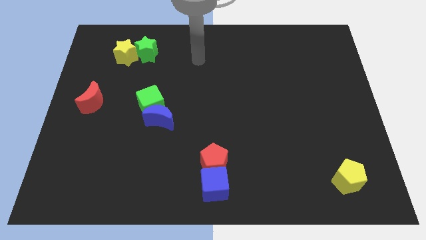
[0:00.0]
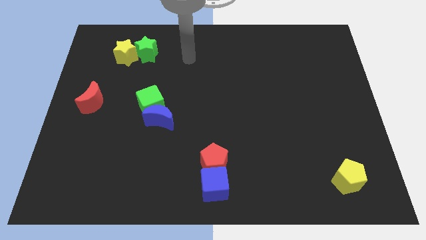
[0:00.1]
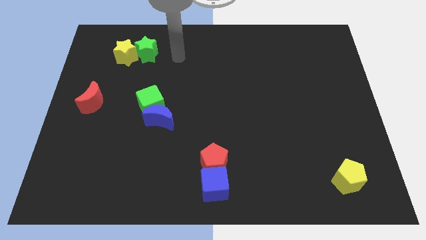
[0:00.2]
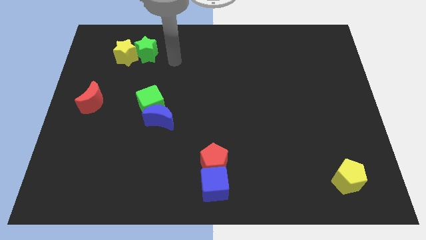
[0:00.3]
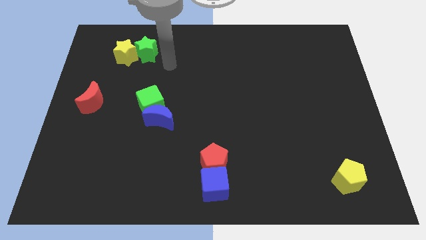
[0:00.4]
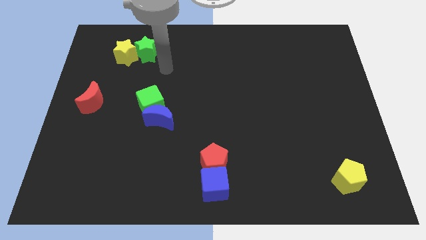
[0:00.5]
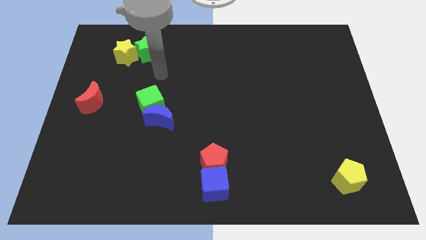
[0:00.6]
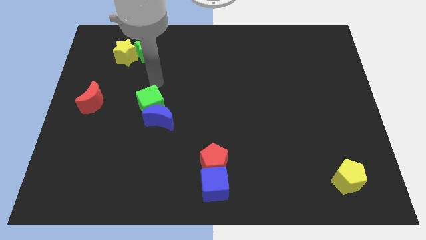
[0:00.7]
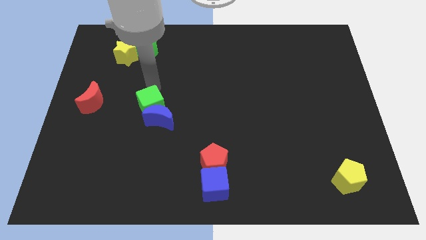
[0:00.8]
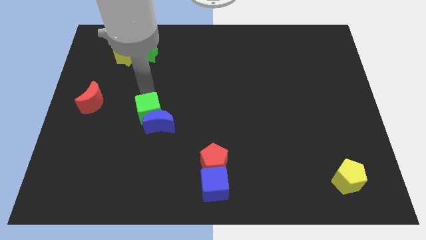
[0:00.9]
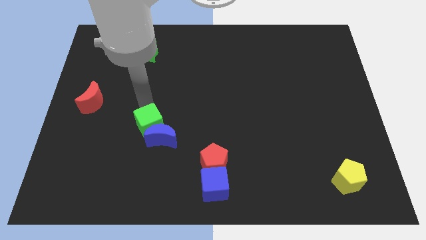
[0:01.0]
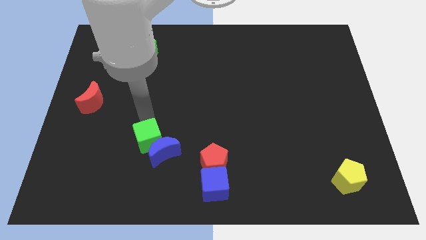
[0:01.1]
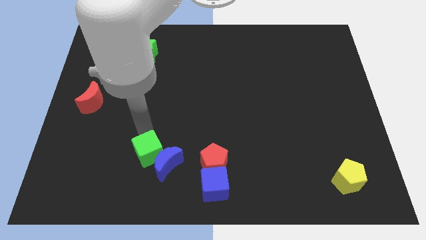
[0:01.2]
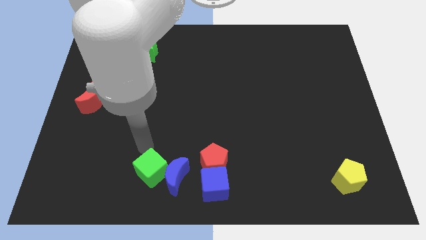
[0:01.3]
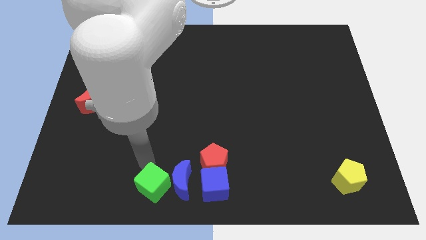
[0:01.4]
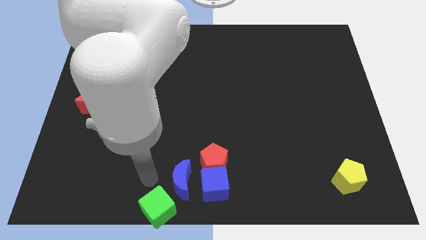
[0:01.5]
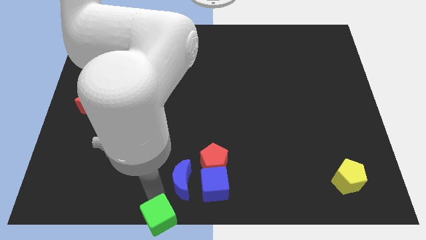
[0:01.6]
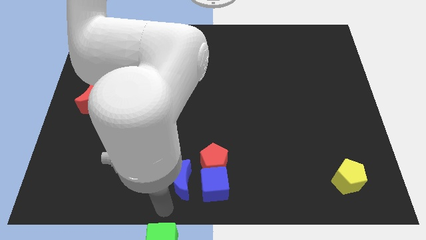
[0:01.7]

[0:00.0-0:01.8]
separate the blue moon from the green cube

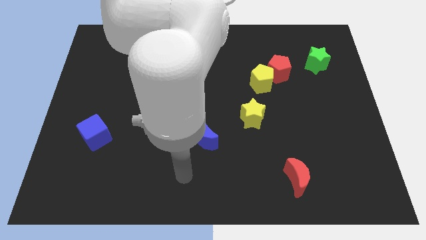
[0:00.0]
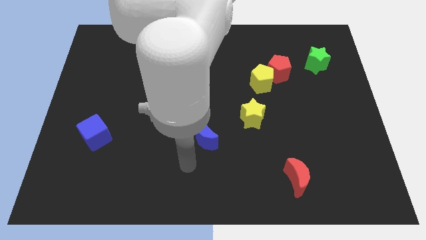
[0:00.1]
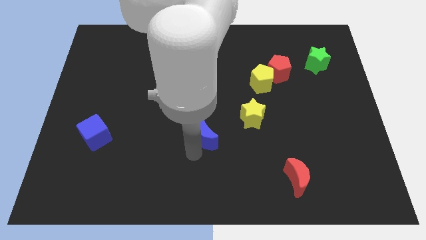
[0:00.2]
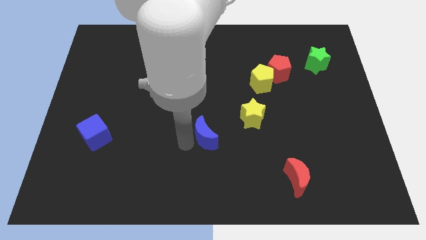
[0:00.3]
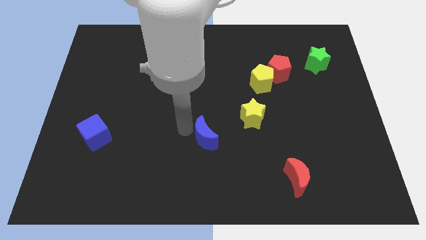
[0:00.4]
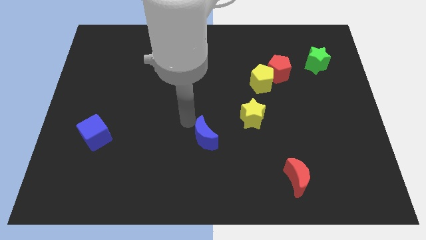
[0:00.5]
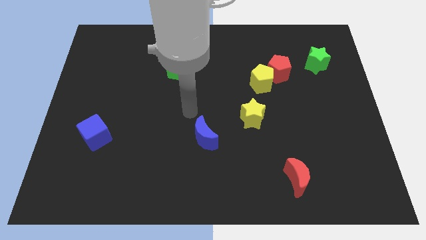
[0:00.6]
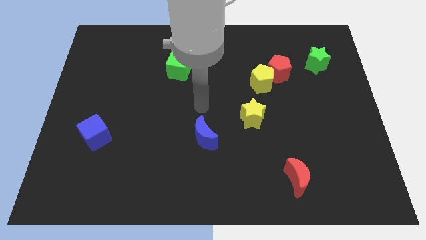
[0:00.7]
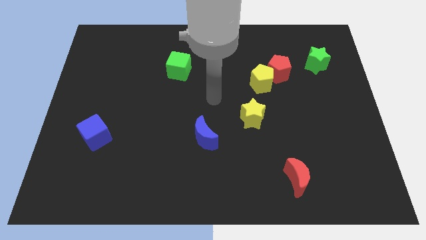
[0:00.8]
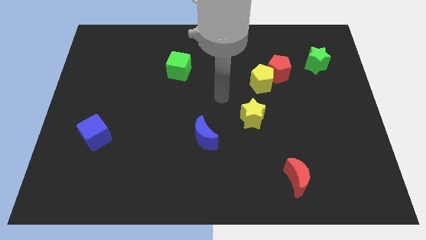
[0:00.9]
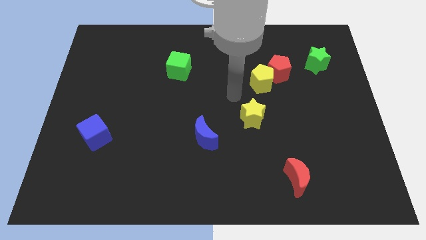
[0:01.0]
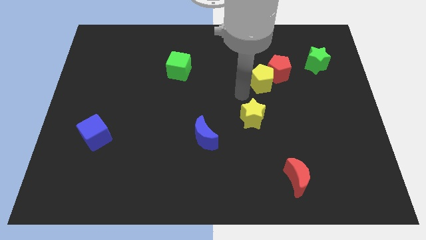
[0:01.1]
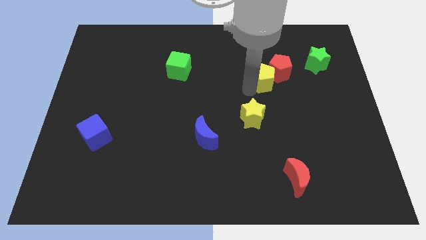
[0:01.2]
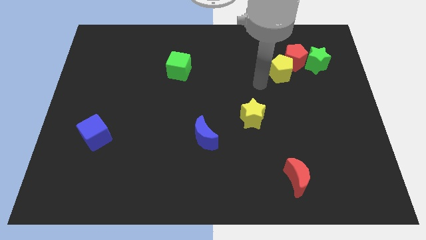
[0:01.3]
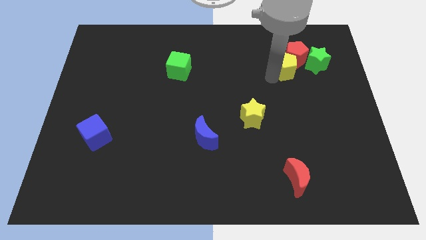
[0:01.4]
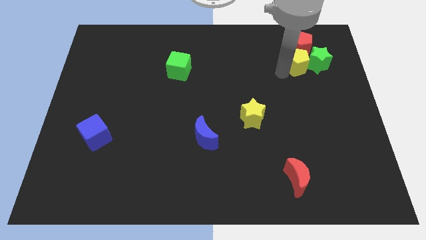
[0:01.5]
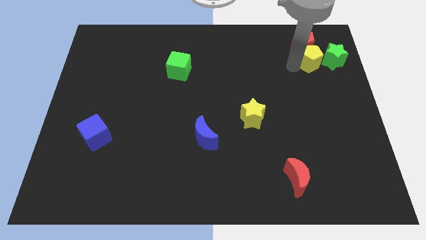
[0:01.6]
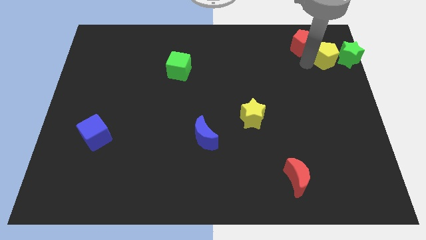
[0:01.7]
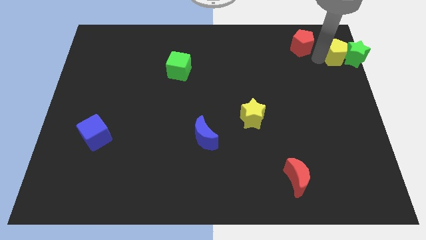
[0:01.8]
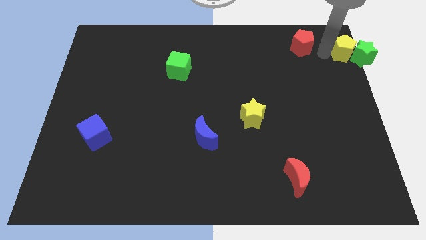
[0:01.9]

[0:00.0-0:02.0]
move the red pentagon away from the yellow pentagon

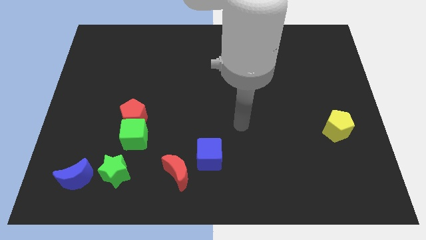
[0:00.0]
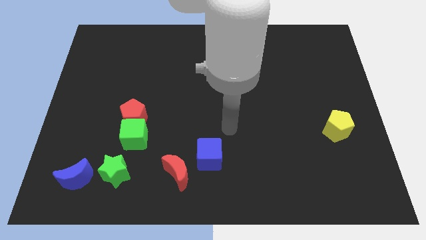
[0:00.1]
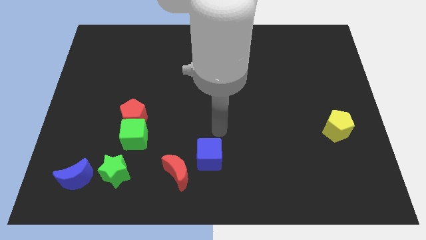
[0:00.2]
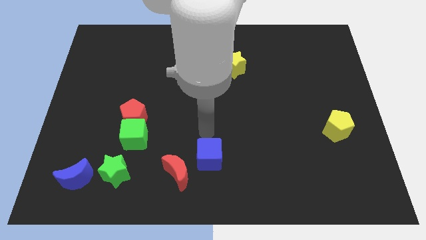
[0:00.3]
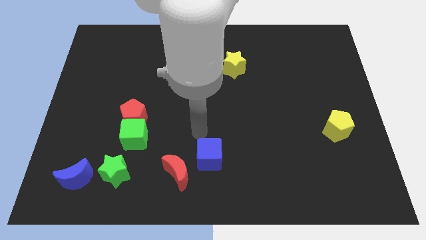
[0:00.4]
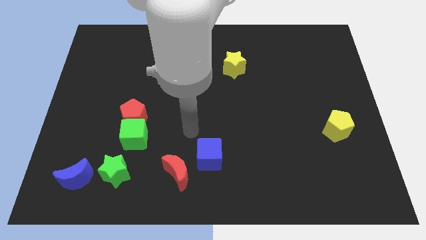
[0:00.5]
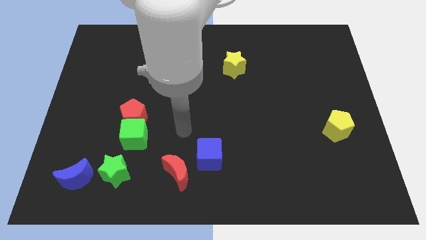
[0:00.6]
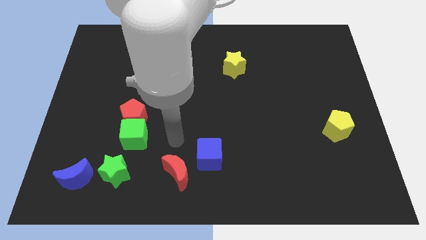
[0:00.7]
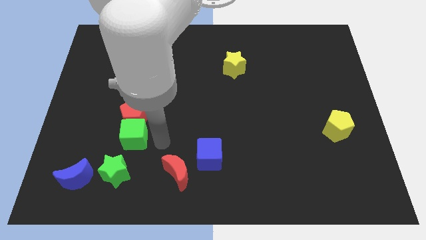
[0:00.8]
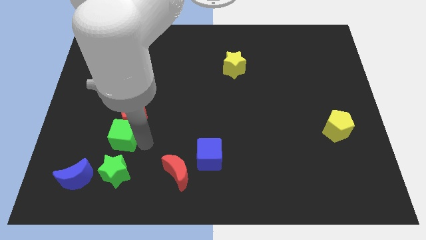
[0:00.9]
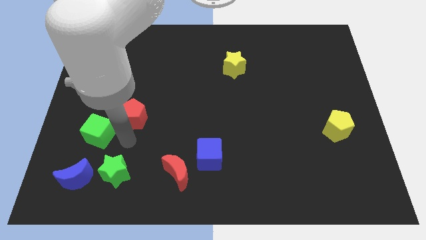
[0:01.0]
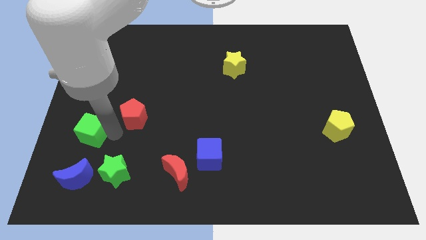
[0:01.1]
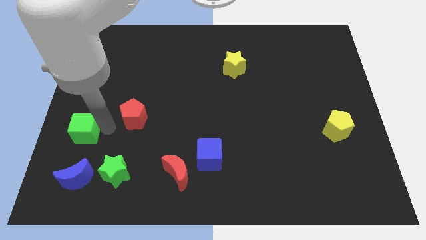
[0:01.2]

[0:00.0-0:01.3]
move the red pentagon away from the green cube

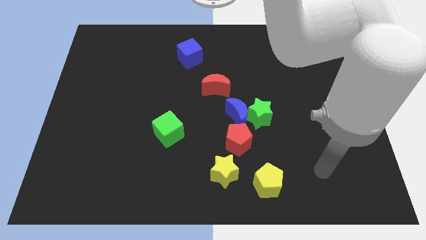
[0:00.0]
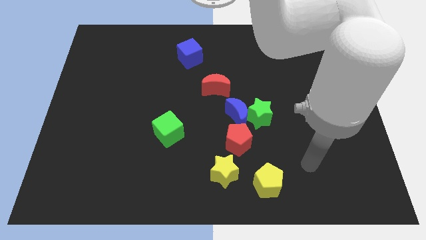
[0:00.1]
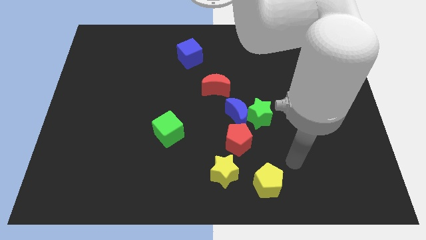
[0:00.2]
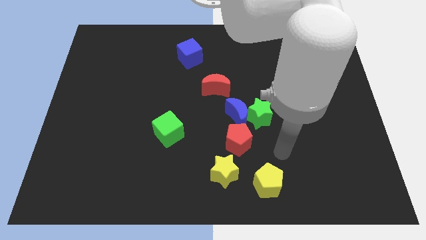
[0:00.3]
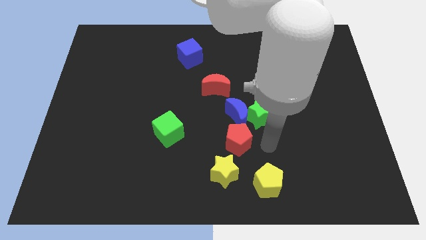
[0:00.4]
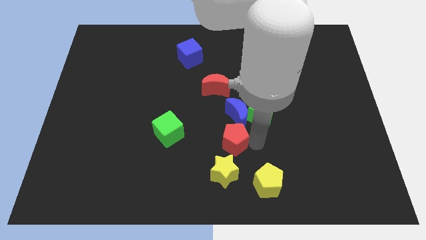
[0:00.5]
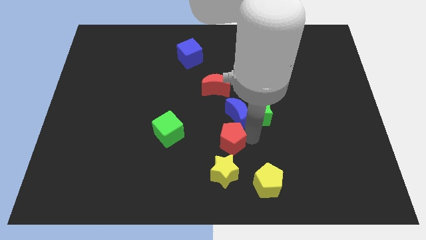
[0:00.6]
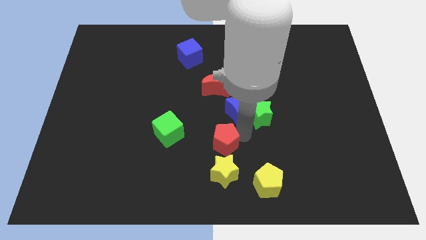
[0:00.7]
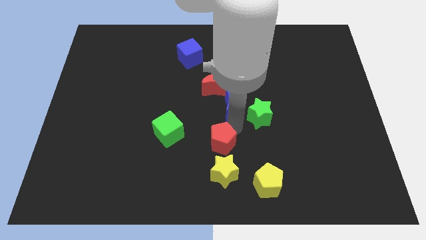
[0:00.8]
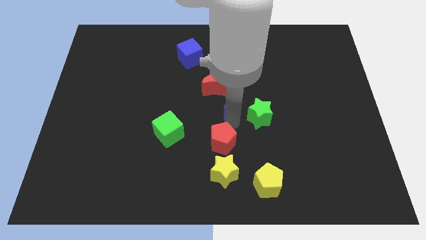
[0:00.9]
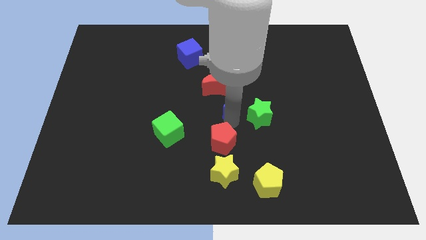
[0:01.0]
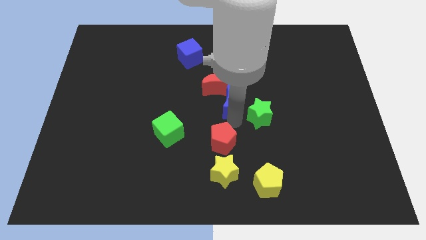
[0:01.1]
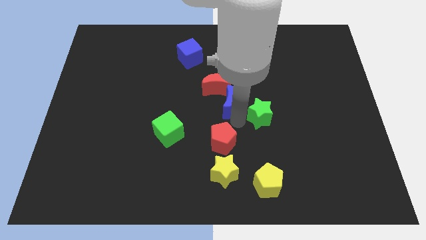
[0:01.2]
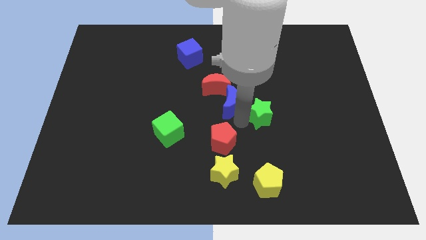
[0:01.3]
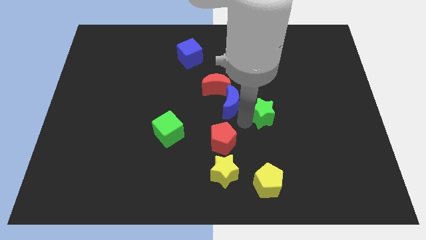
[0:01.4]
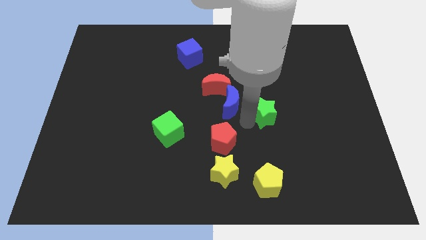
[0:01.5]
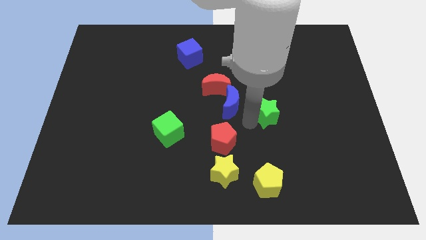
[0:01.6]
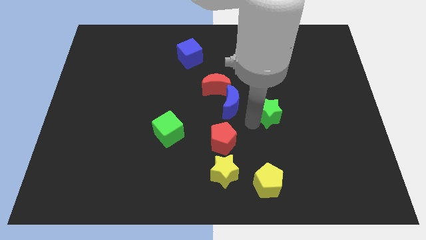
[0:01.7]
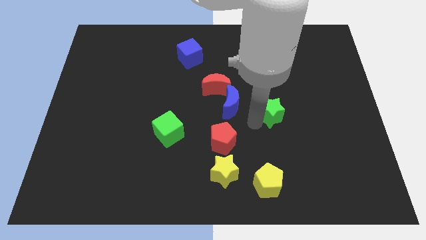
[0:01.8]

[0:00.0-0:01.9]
separate the green star from the blue moon and red pentagon

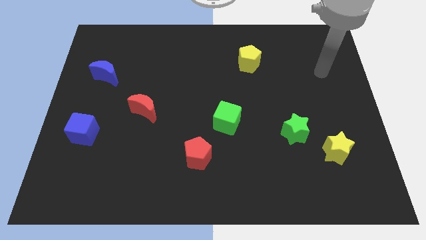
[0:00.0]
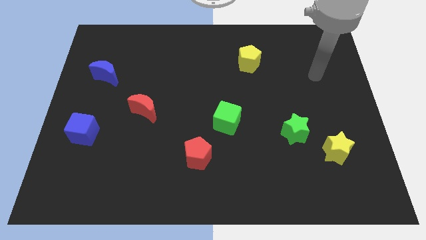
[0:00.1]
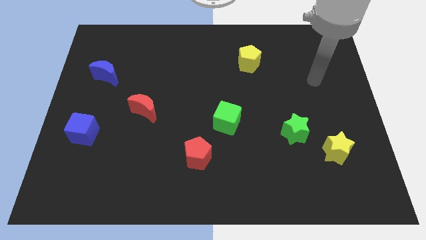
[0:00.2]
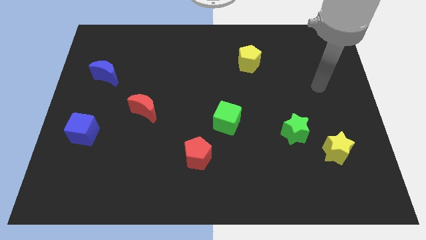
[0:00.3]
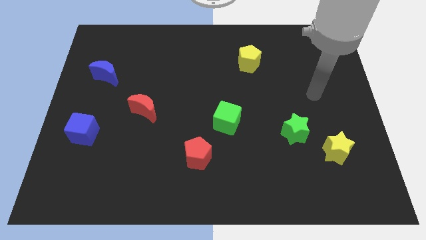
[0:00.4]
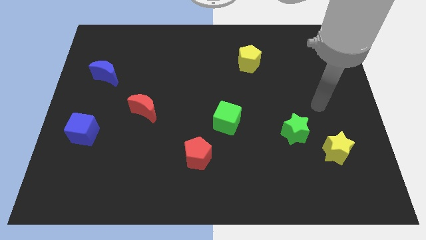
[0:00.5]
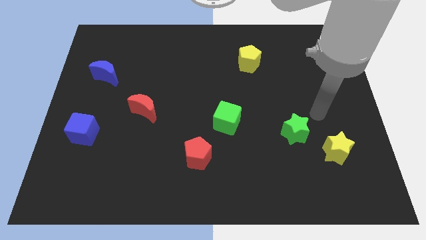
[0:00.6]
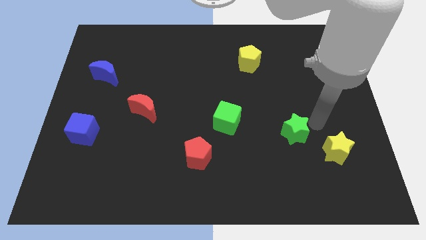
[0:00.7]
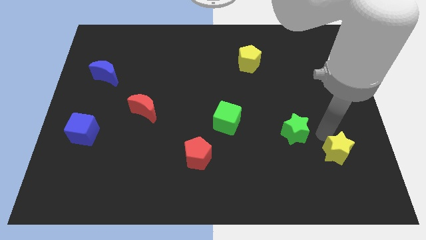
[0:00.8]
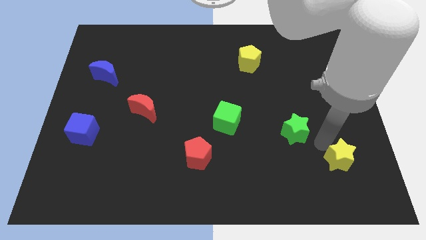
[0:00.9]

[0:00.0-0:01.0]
separate the green star from the yellow star

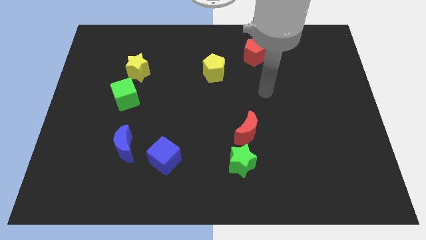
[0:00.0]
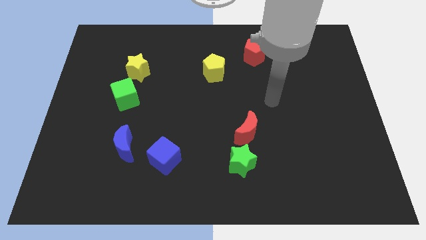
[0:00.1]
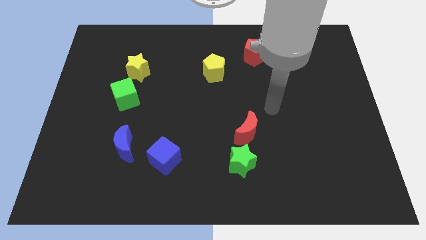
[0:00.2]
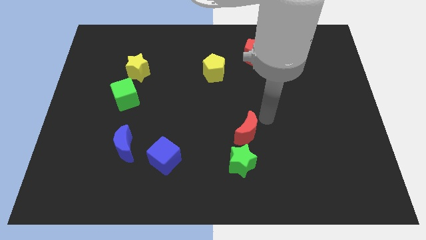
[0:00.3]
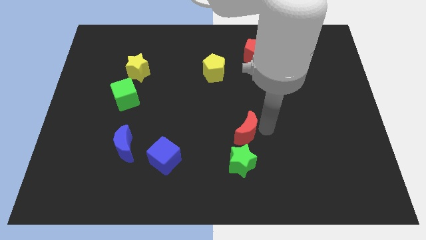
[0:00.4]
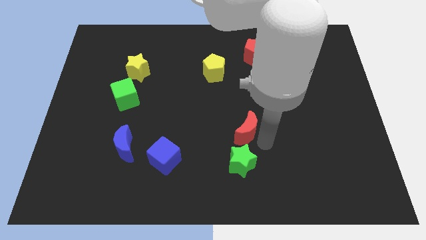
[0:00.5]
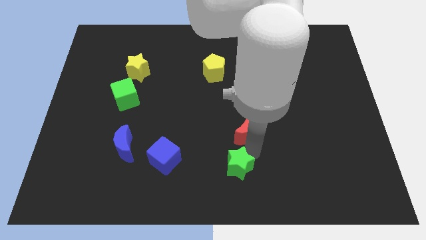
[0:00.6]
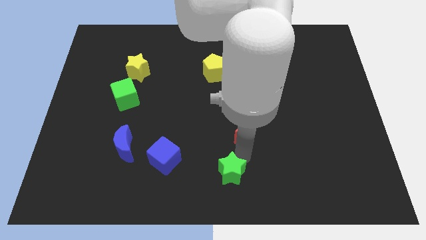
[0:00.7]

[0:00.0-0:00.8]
pull the red moon apart from the green star

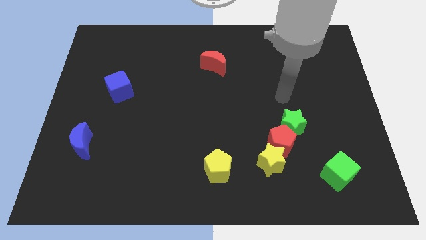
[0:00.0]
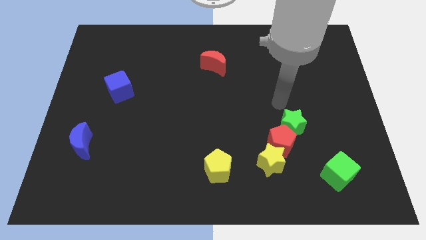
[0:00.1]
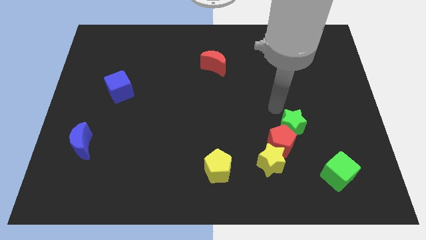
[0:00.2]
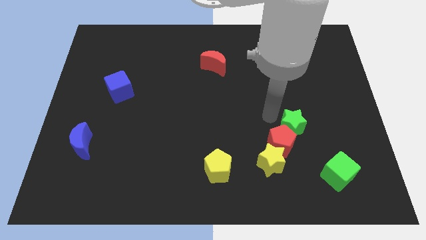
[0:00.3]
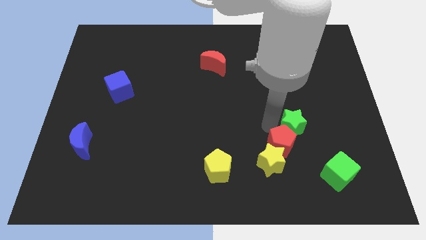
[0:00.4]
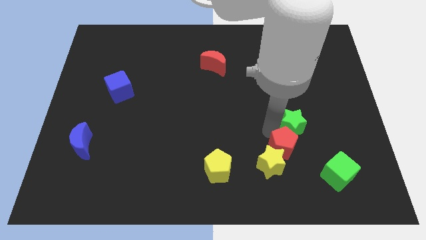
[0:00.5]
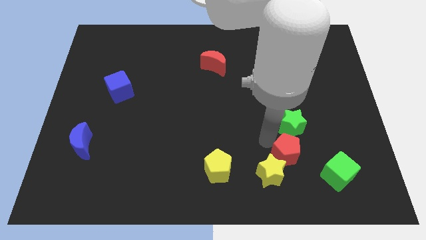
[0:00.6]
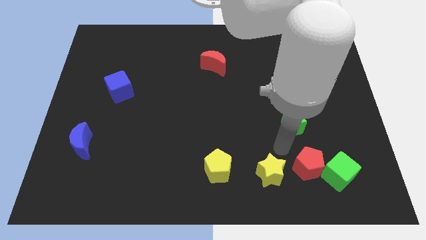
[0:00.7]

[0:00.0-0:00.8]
separate the green star from the red pentagon
